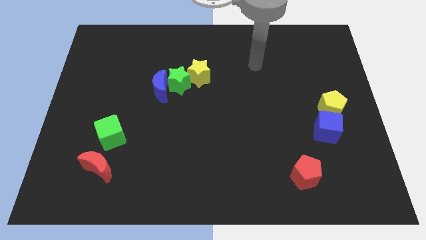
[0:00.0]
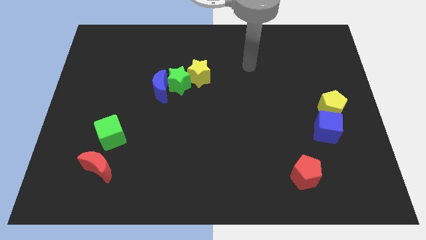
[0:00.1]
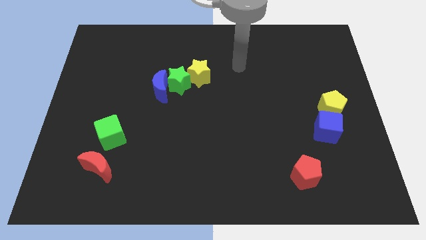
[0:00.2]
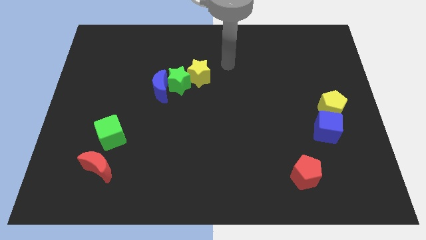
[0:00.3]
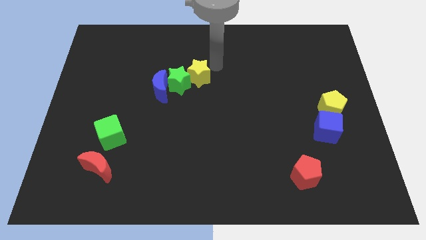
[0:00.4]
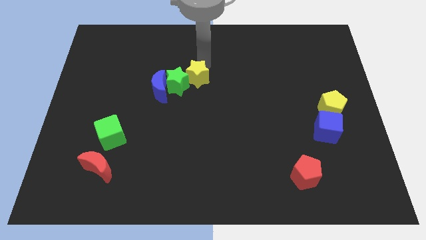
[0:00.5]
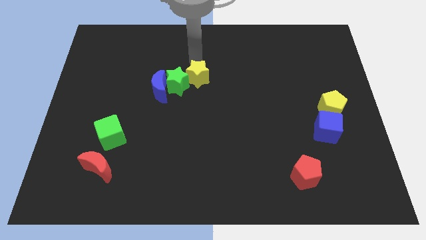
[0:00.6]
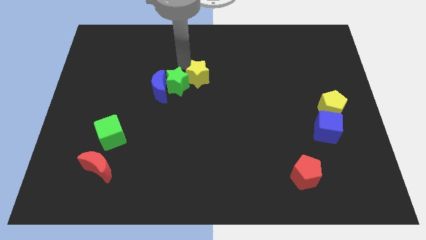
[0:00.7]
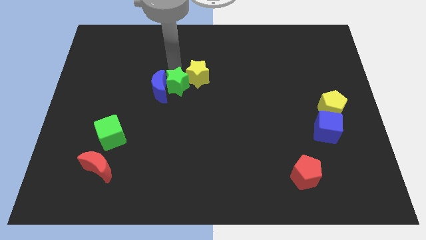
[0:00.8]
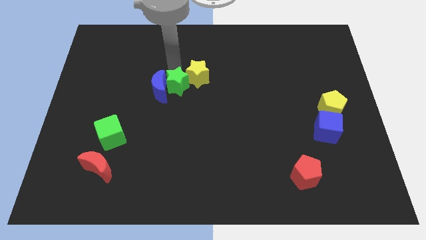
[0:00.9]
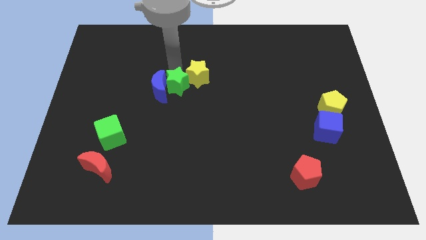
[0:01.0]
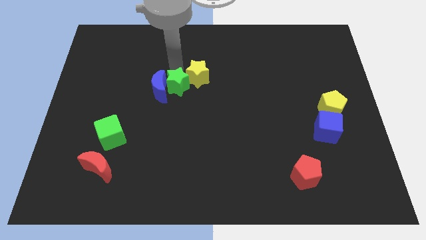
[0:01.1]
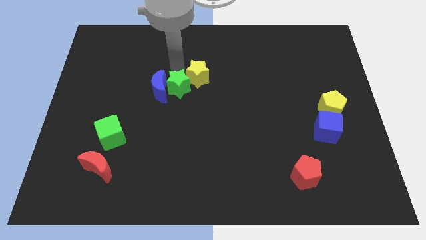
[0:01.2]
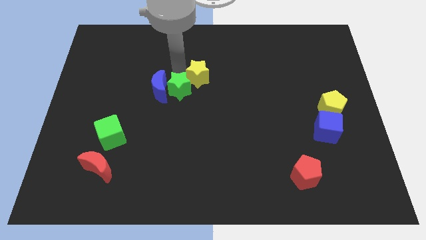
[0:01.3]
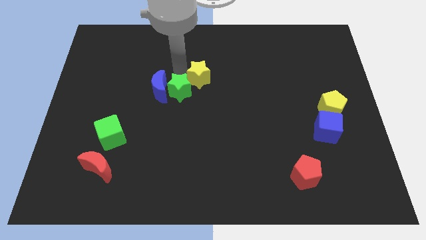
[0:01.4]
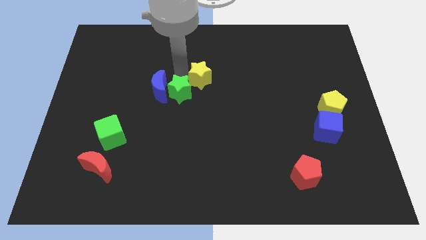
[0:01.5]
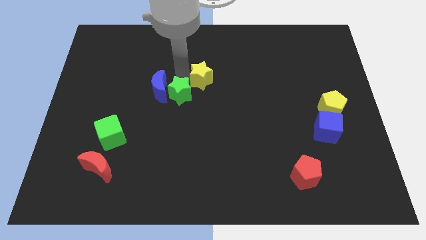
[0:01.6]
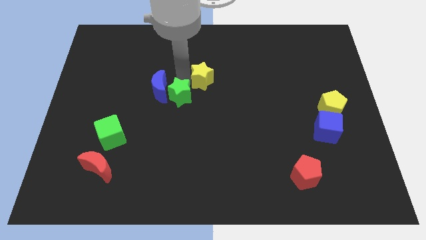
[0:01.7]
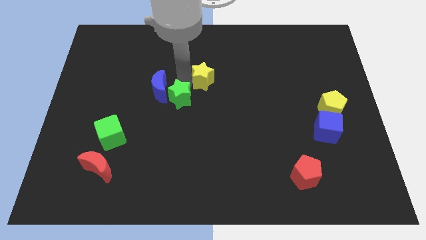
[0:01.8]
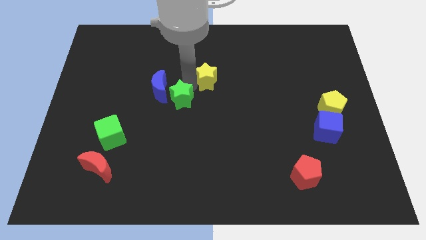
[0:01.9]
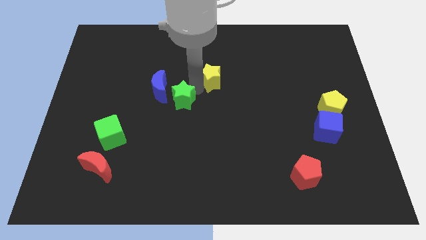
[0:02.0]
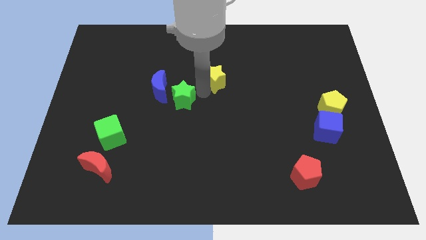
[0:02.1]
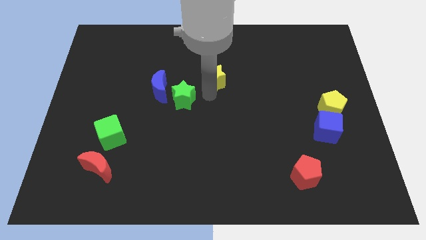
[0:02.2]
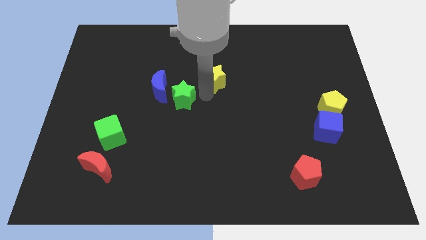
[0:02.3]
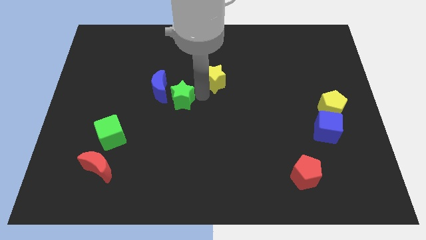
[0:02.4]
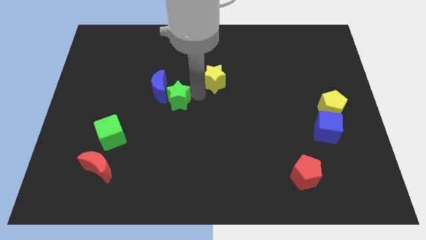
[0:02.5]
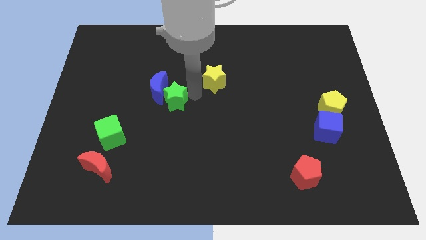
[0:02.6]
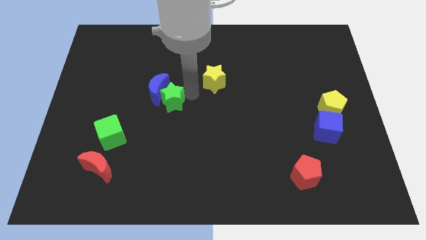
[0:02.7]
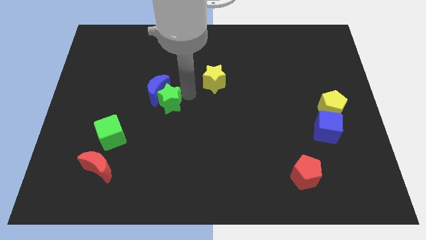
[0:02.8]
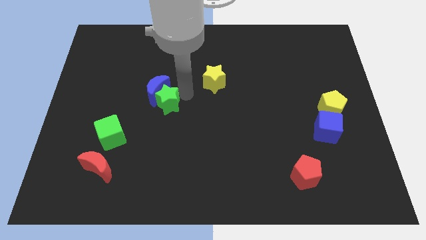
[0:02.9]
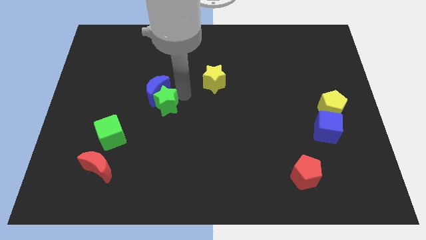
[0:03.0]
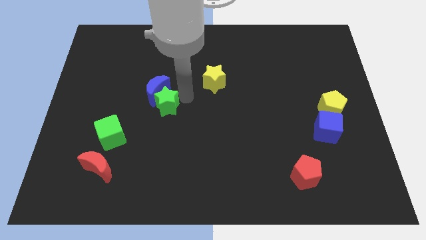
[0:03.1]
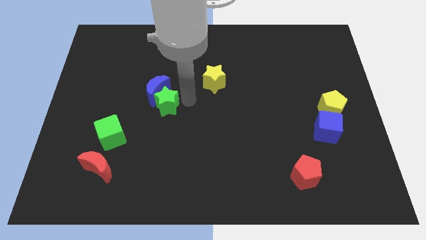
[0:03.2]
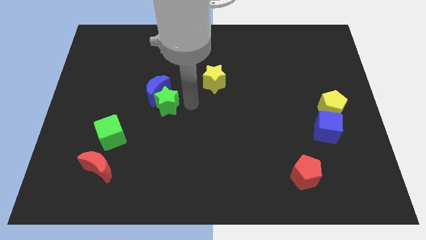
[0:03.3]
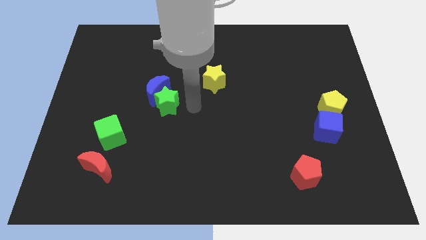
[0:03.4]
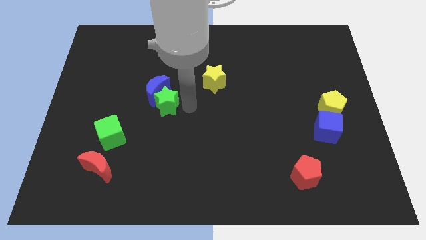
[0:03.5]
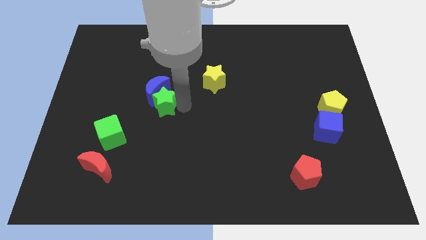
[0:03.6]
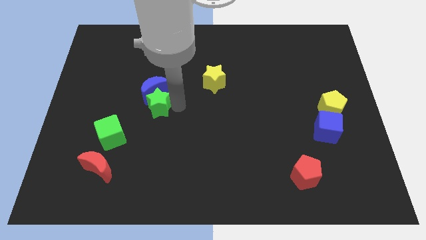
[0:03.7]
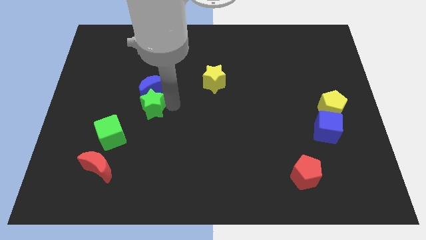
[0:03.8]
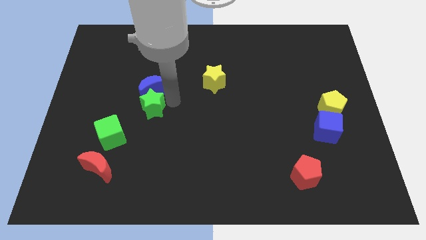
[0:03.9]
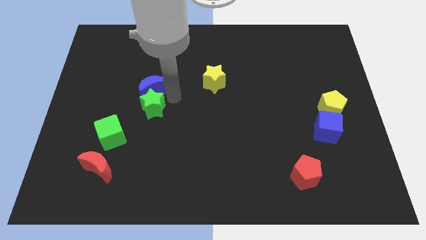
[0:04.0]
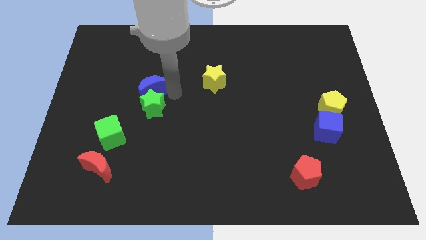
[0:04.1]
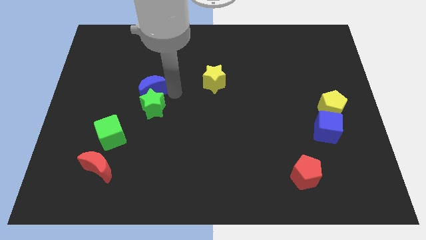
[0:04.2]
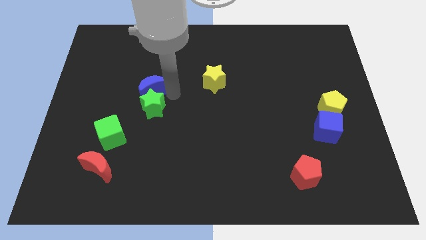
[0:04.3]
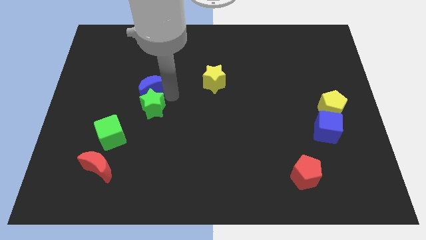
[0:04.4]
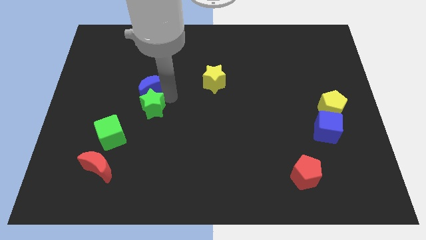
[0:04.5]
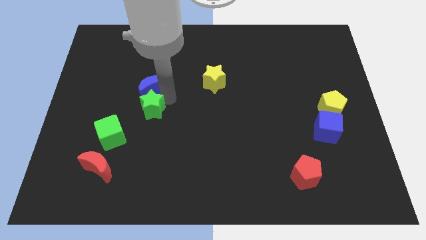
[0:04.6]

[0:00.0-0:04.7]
separate the green star from the blue moon and yellow star

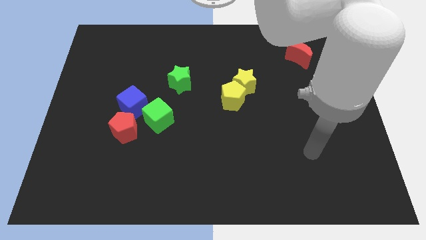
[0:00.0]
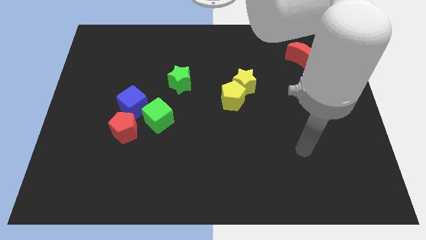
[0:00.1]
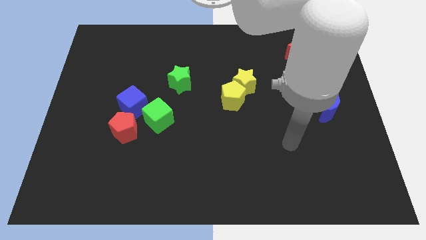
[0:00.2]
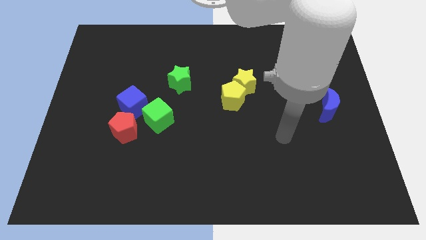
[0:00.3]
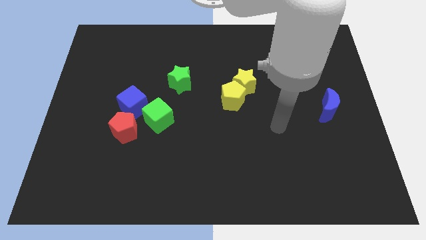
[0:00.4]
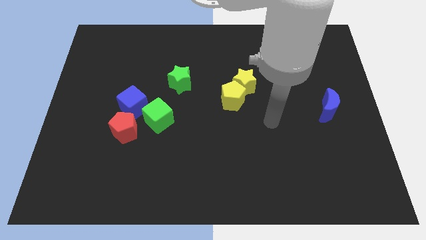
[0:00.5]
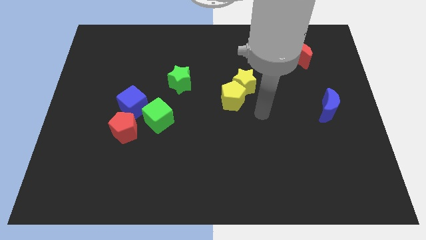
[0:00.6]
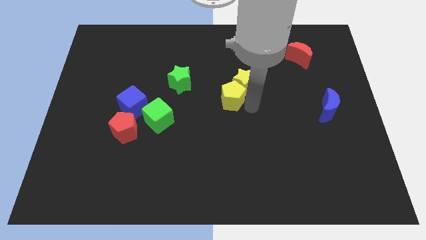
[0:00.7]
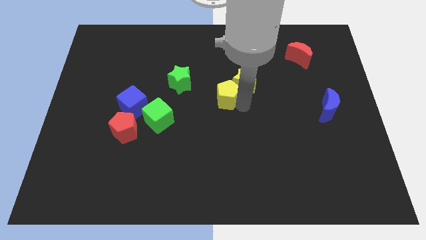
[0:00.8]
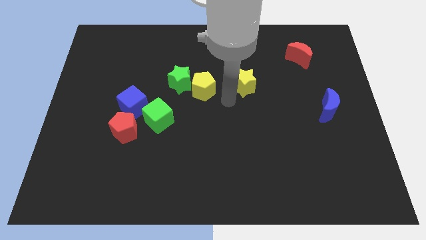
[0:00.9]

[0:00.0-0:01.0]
separate the yellow star from the yellow pentagon

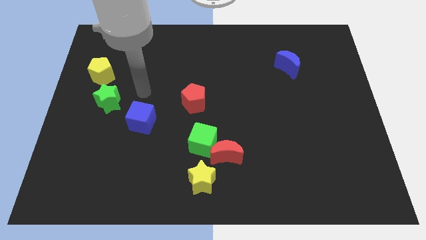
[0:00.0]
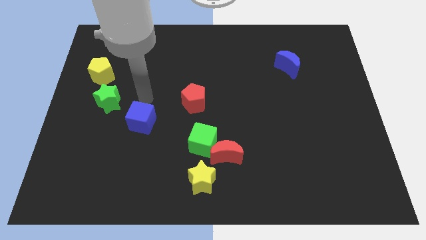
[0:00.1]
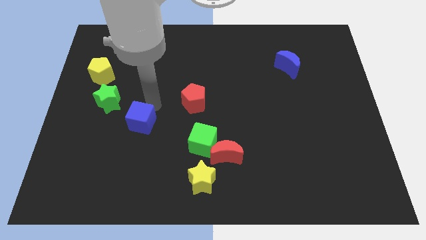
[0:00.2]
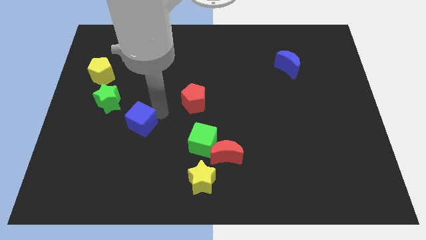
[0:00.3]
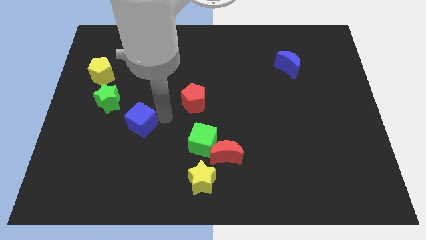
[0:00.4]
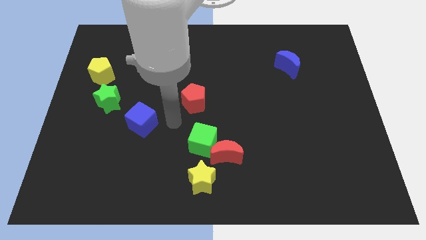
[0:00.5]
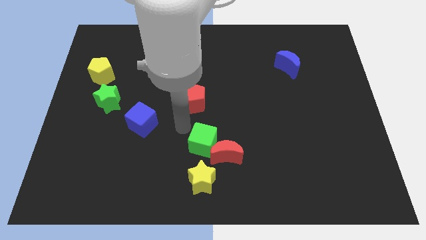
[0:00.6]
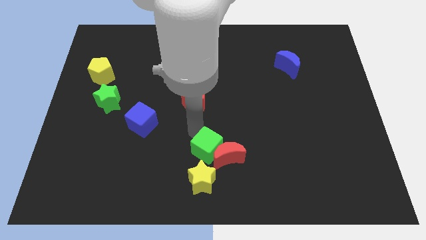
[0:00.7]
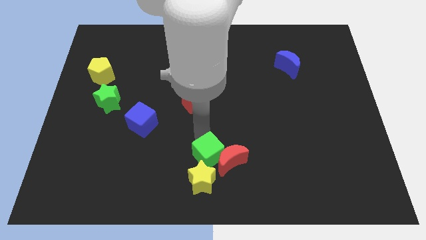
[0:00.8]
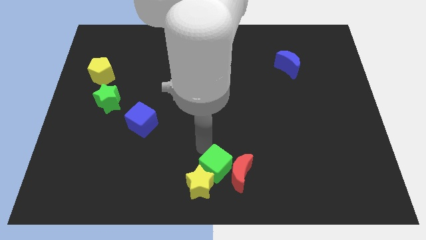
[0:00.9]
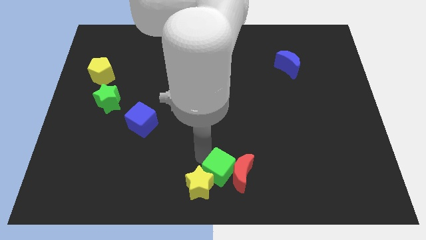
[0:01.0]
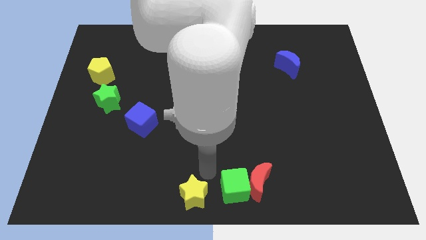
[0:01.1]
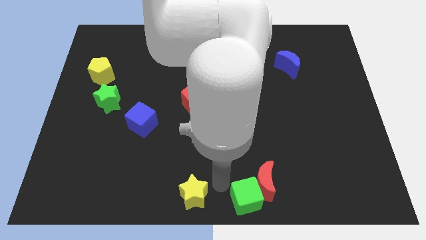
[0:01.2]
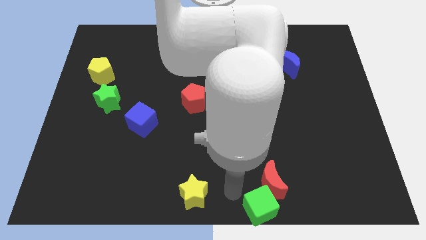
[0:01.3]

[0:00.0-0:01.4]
move the red moon away from the green cube and yellow star

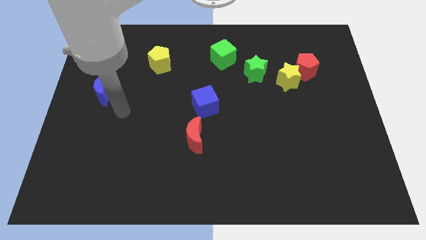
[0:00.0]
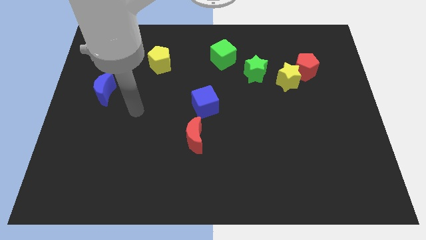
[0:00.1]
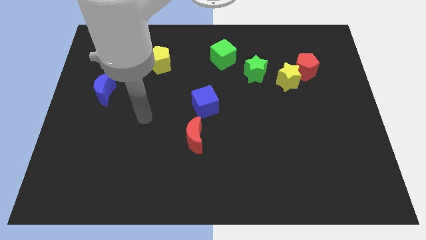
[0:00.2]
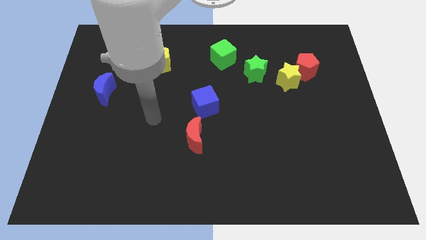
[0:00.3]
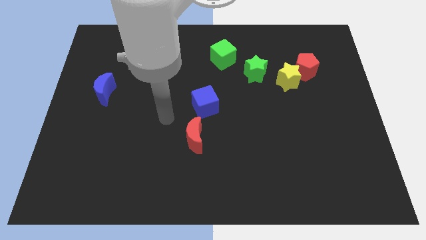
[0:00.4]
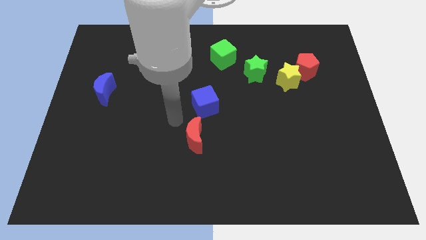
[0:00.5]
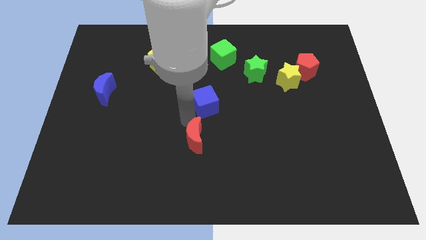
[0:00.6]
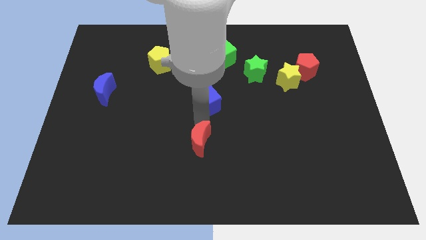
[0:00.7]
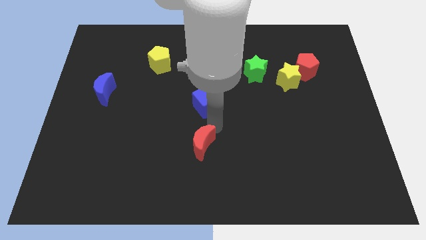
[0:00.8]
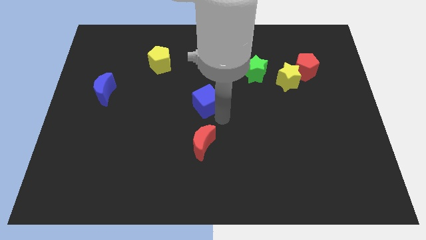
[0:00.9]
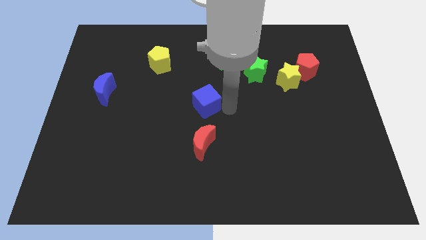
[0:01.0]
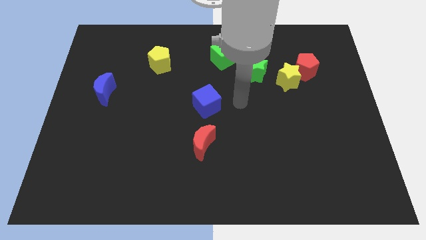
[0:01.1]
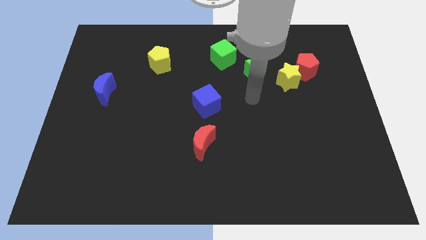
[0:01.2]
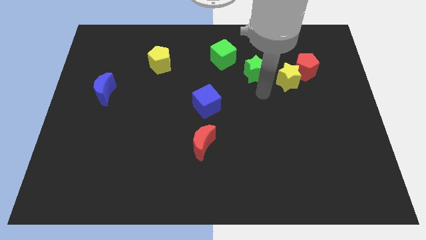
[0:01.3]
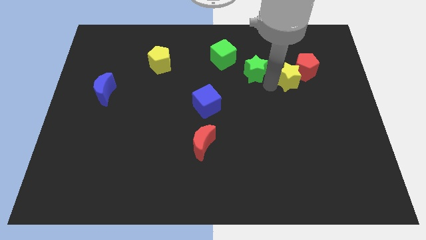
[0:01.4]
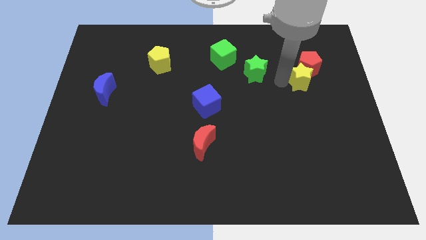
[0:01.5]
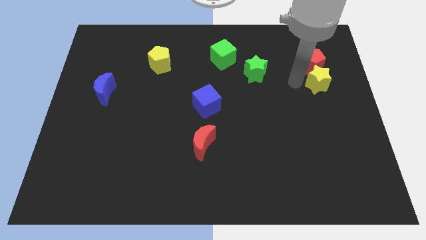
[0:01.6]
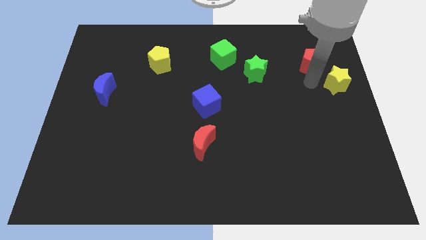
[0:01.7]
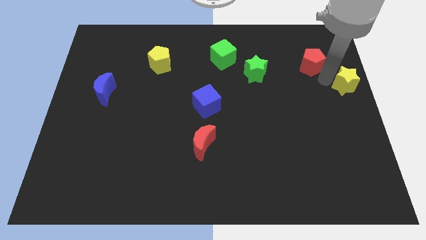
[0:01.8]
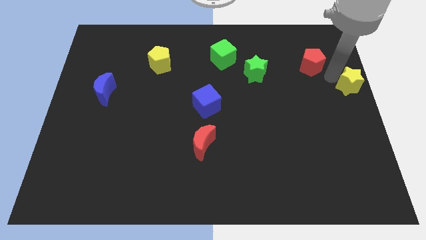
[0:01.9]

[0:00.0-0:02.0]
pull the red pentagon apart from the yellow star

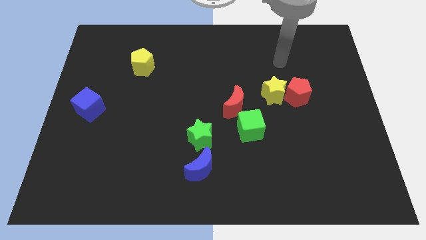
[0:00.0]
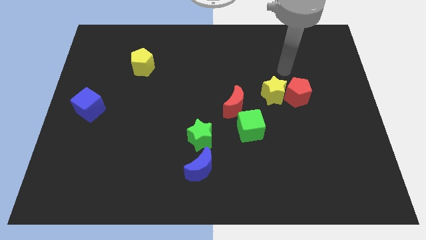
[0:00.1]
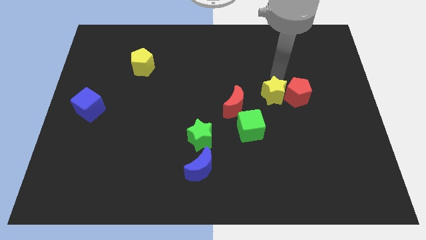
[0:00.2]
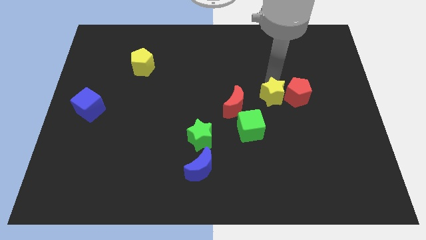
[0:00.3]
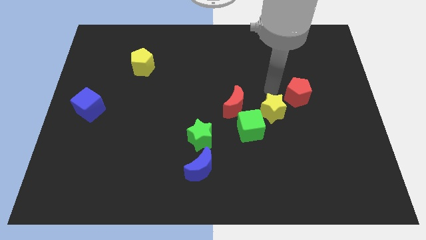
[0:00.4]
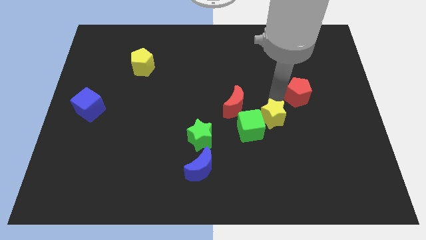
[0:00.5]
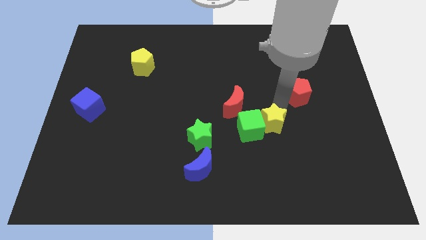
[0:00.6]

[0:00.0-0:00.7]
move the red pentagon away from the yellow star
